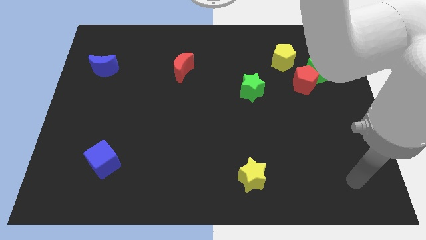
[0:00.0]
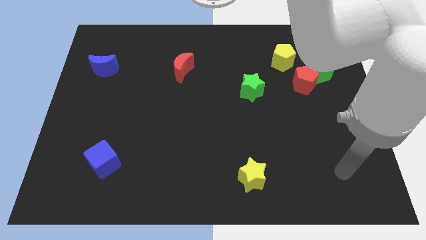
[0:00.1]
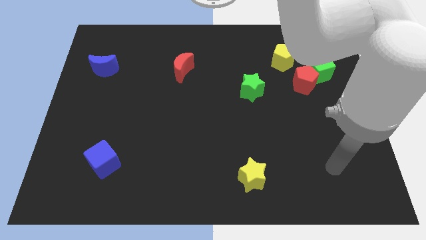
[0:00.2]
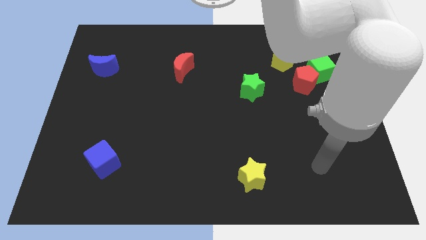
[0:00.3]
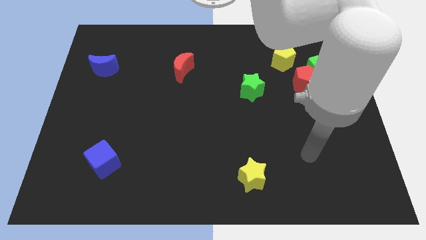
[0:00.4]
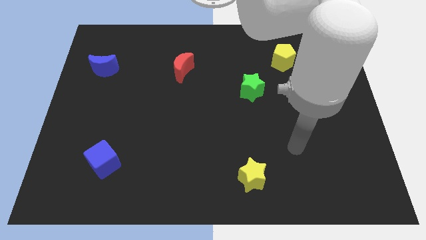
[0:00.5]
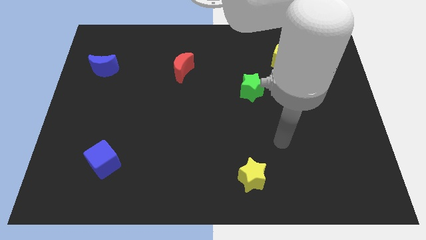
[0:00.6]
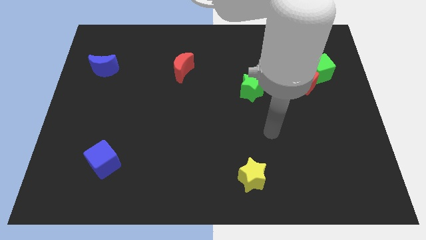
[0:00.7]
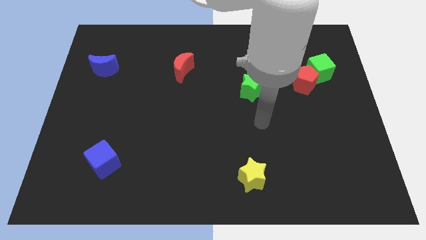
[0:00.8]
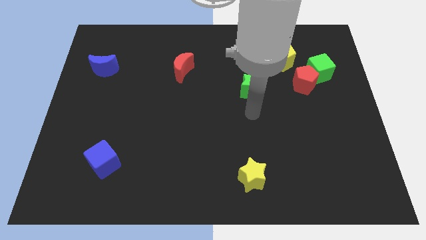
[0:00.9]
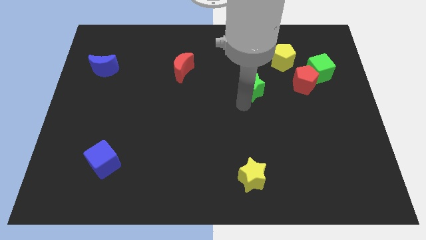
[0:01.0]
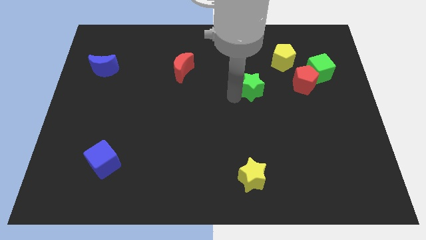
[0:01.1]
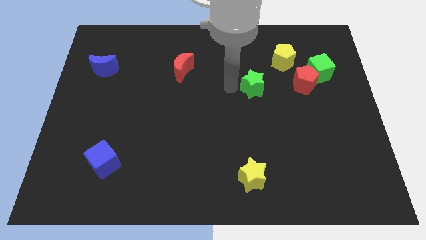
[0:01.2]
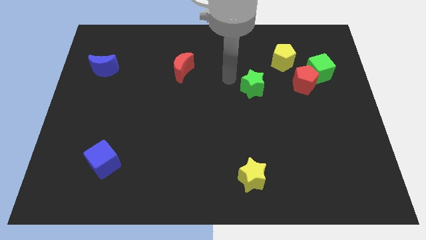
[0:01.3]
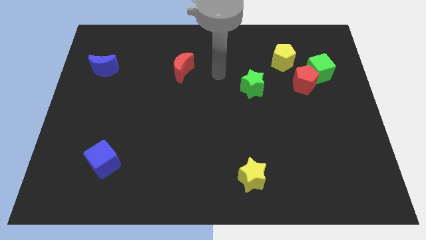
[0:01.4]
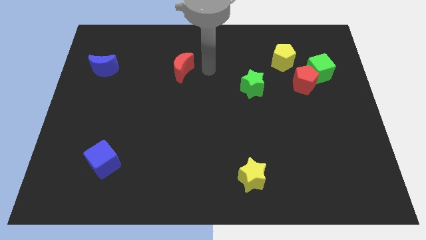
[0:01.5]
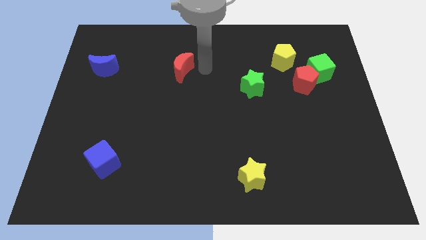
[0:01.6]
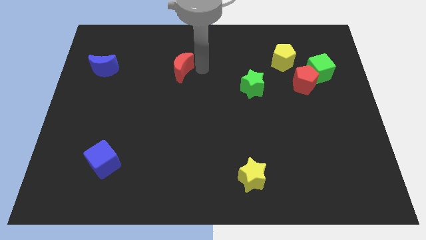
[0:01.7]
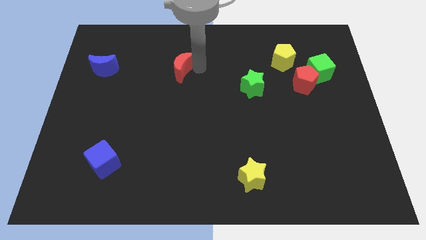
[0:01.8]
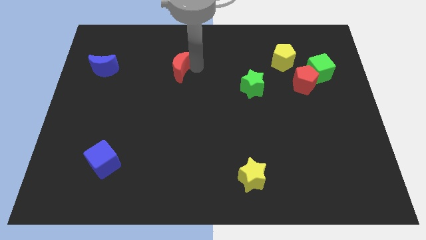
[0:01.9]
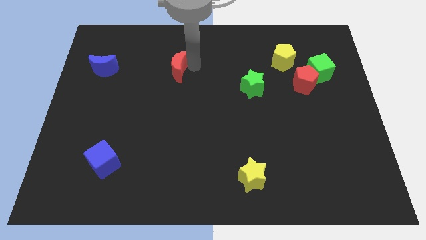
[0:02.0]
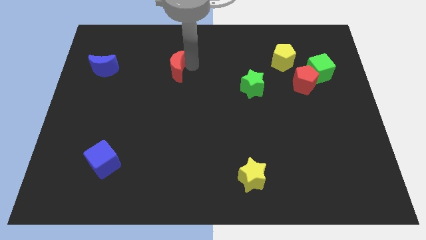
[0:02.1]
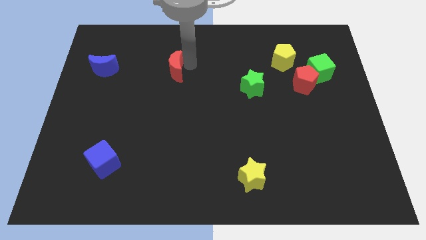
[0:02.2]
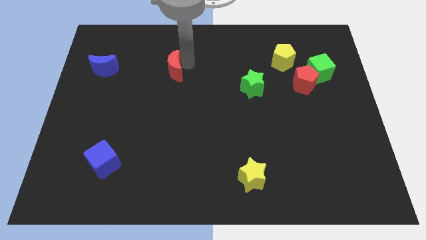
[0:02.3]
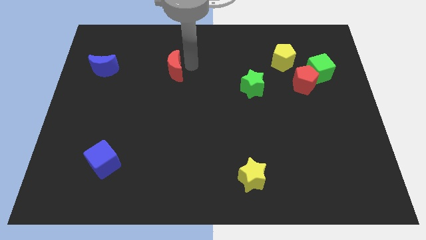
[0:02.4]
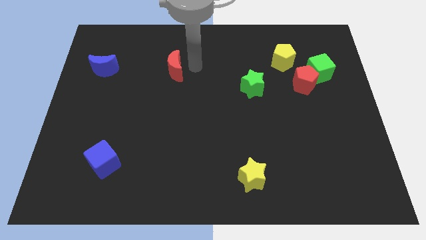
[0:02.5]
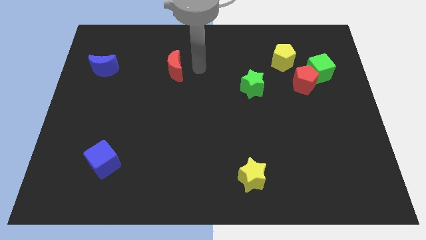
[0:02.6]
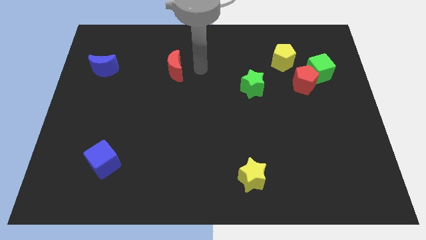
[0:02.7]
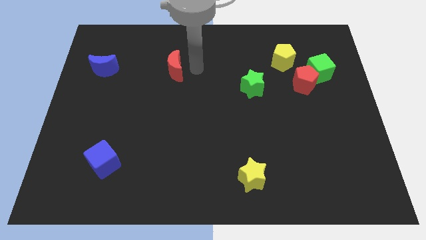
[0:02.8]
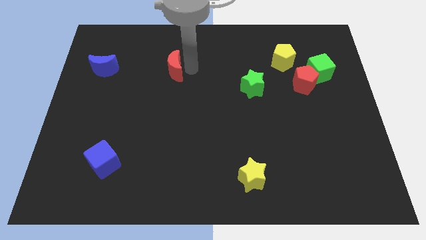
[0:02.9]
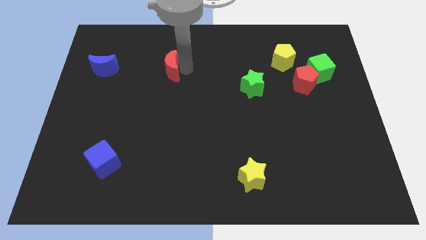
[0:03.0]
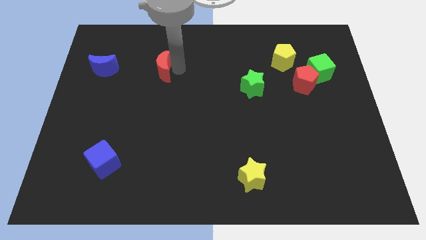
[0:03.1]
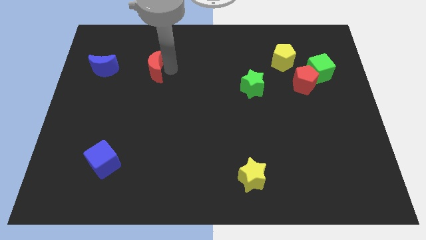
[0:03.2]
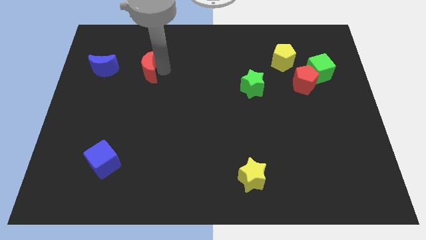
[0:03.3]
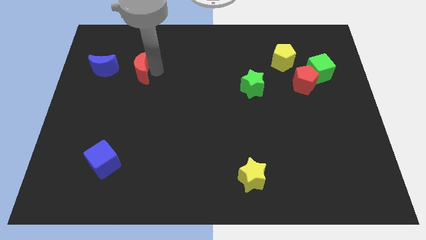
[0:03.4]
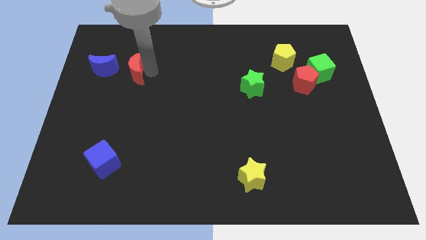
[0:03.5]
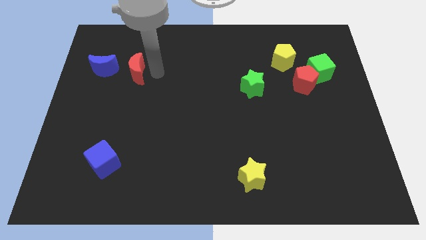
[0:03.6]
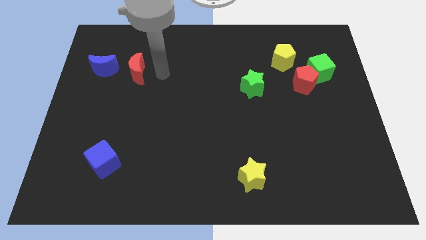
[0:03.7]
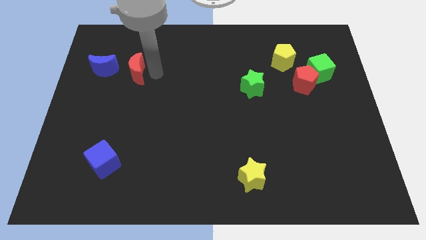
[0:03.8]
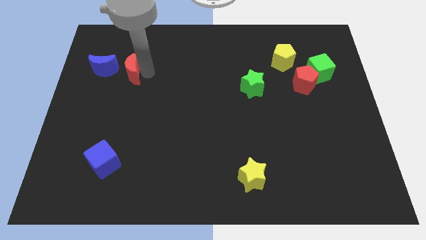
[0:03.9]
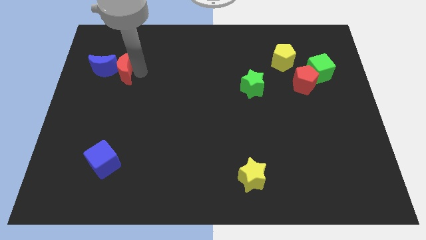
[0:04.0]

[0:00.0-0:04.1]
slide the red moon next to the blue moon

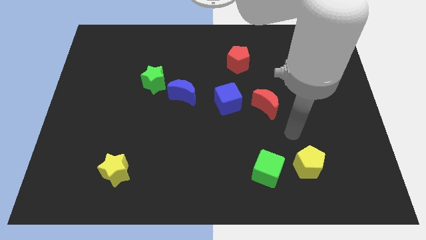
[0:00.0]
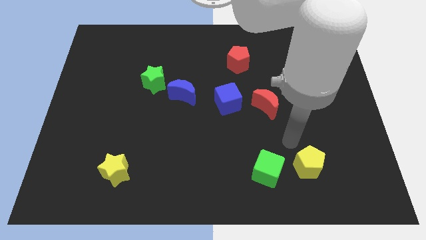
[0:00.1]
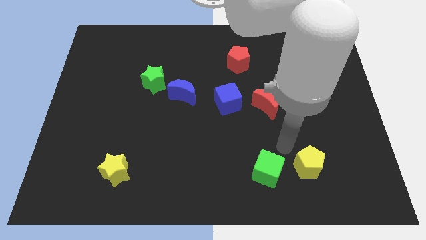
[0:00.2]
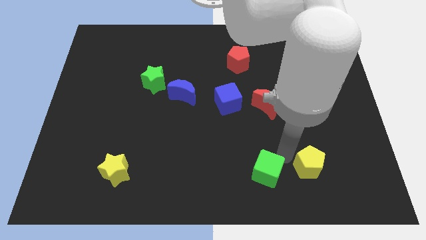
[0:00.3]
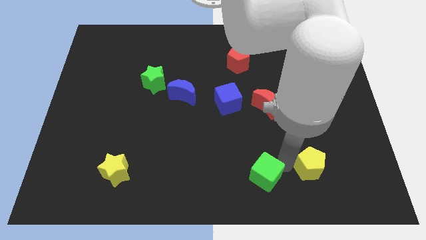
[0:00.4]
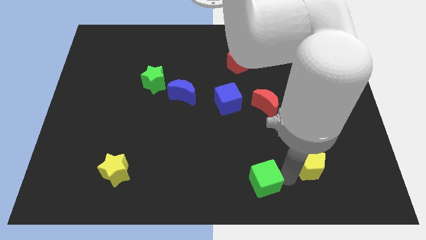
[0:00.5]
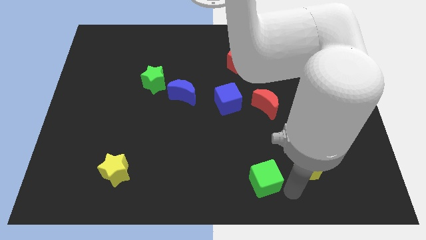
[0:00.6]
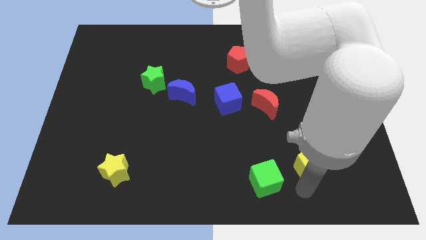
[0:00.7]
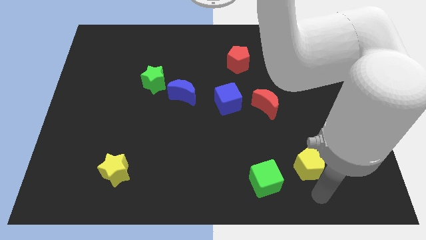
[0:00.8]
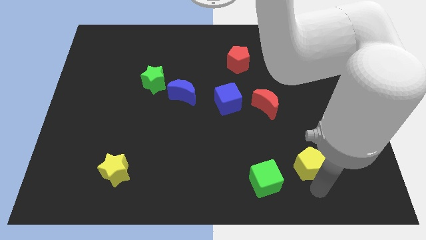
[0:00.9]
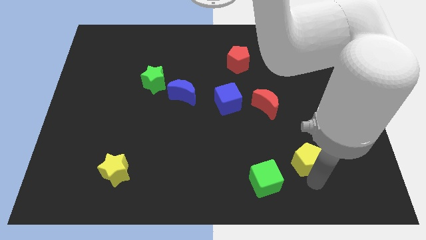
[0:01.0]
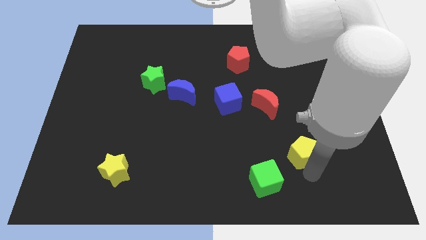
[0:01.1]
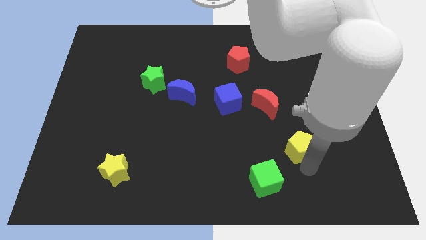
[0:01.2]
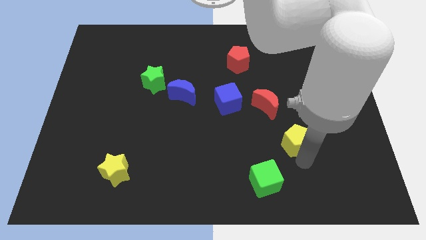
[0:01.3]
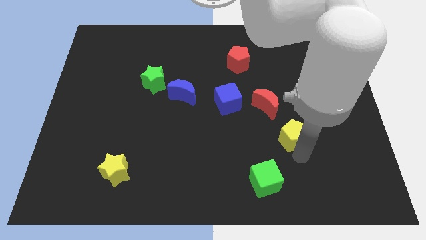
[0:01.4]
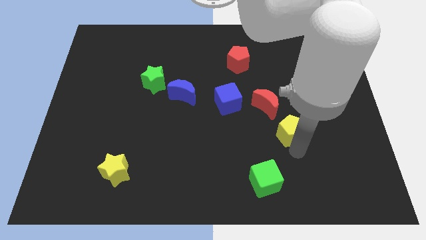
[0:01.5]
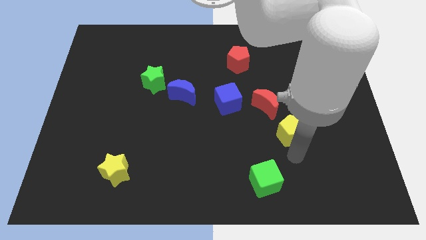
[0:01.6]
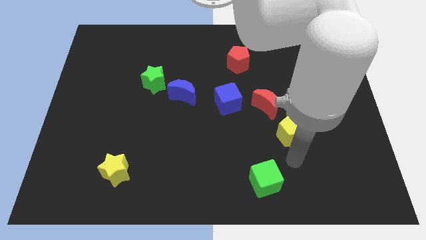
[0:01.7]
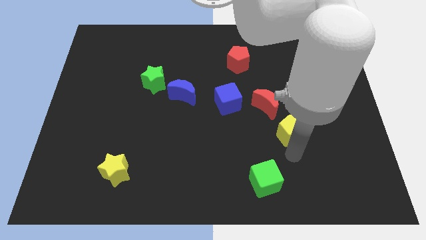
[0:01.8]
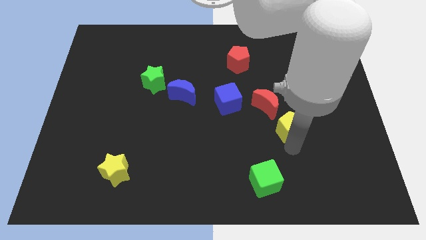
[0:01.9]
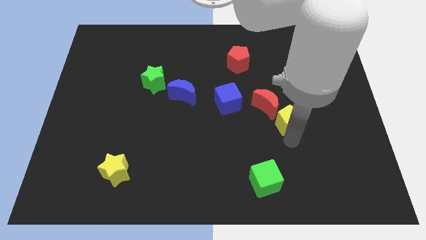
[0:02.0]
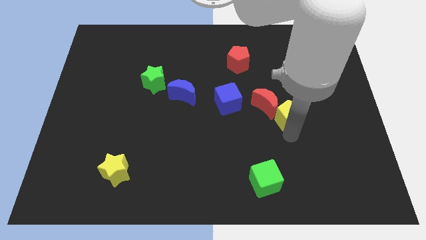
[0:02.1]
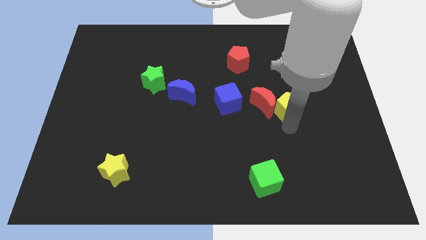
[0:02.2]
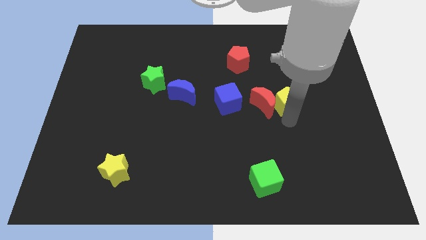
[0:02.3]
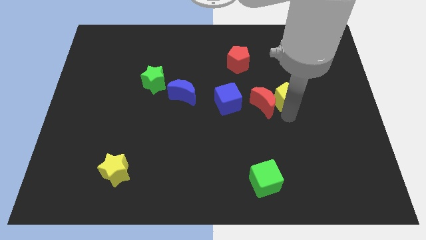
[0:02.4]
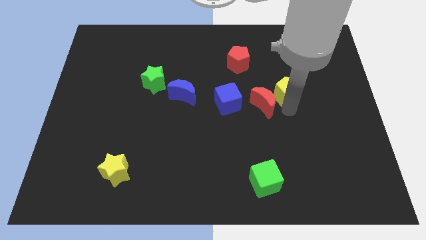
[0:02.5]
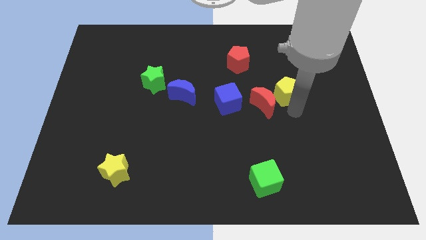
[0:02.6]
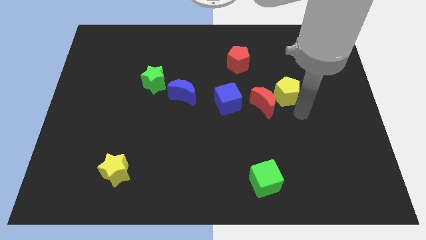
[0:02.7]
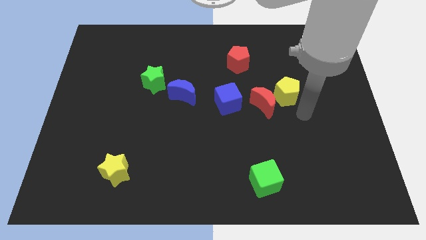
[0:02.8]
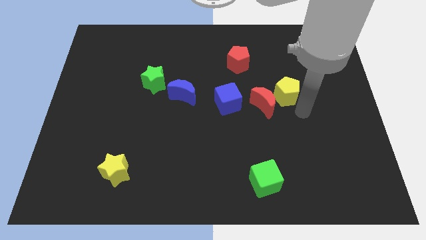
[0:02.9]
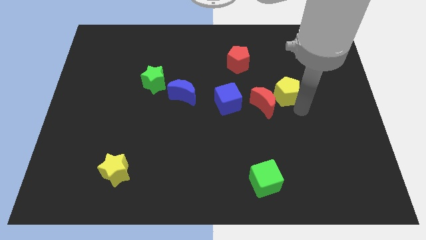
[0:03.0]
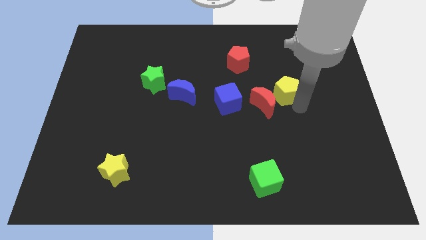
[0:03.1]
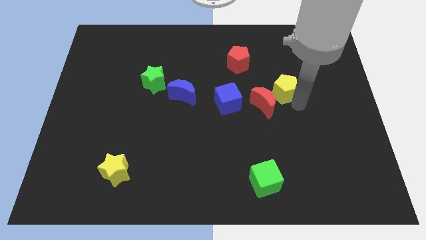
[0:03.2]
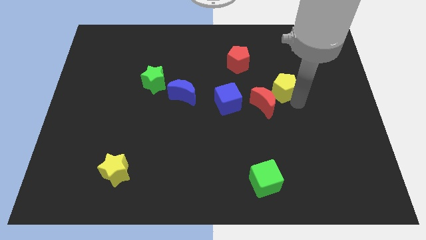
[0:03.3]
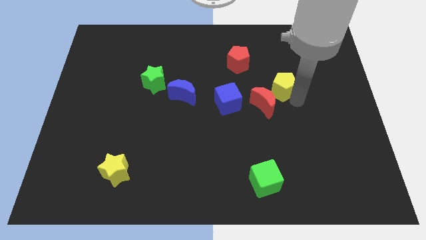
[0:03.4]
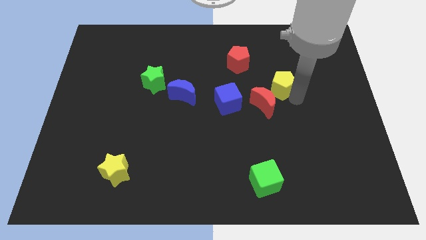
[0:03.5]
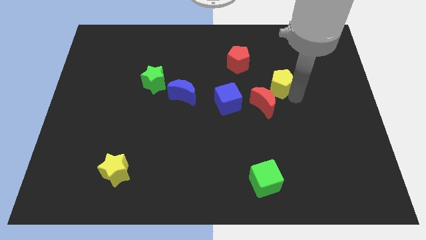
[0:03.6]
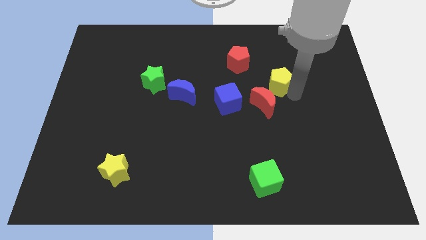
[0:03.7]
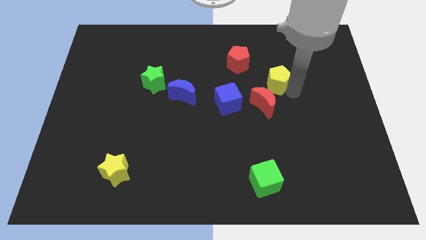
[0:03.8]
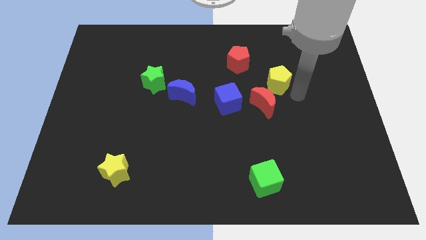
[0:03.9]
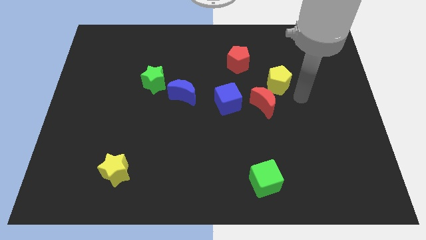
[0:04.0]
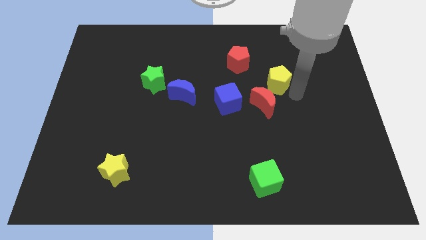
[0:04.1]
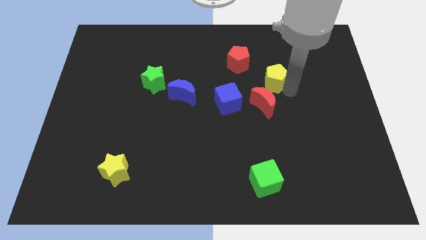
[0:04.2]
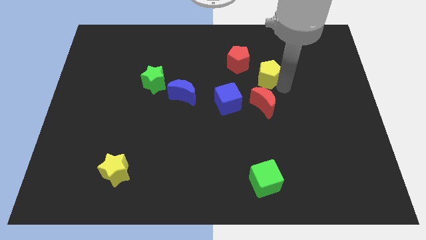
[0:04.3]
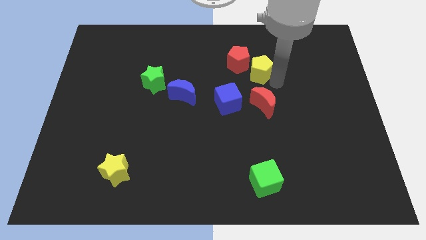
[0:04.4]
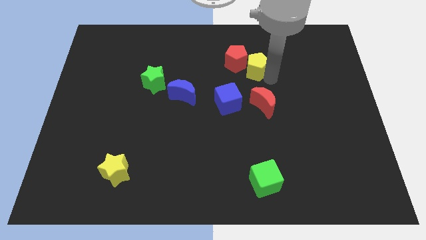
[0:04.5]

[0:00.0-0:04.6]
move the yellow pentagon close to the red pentagon
